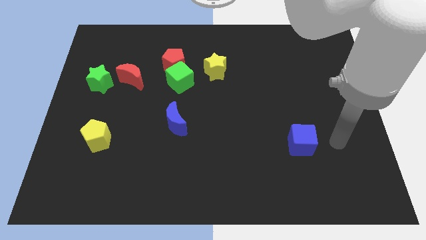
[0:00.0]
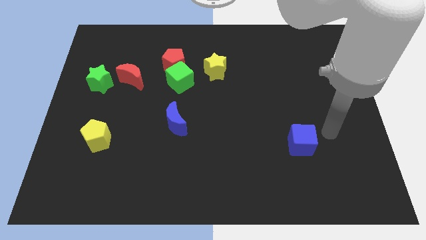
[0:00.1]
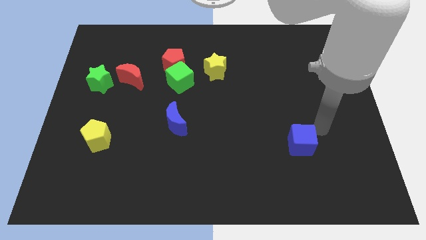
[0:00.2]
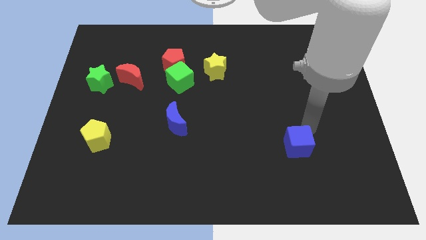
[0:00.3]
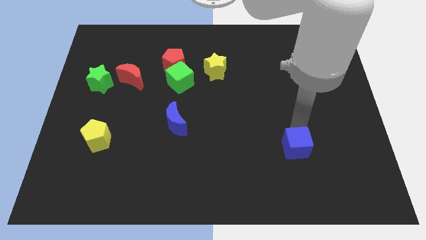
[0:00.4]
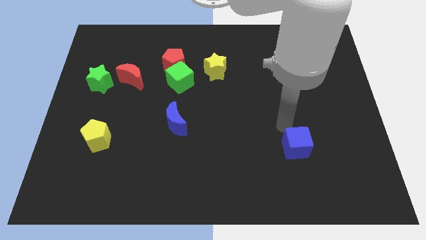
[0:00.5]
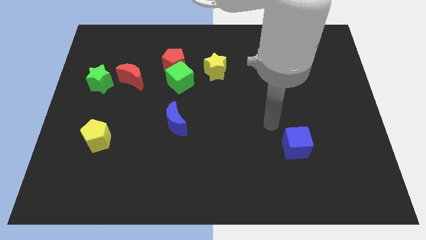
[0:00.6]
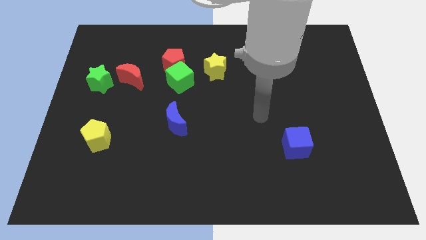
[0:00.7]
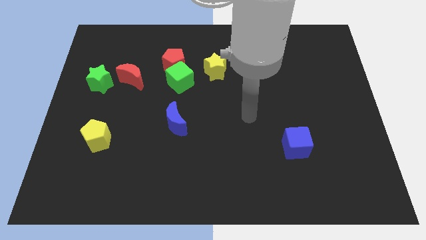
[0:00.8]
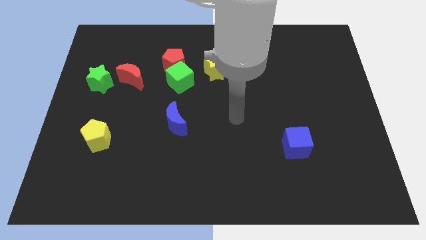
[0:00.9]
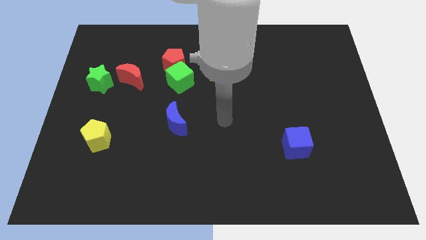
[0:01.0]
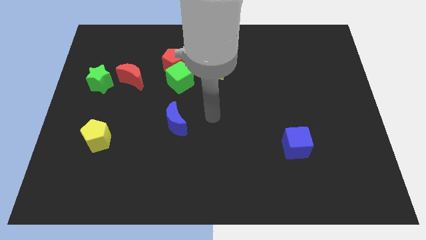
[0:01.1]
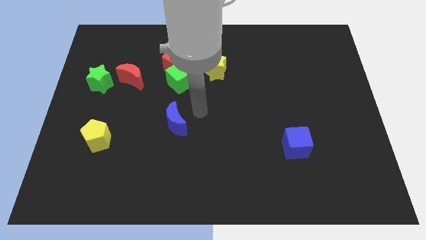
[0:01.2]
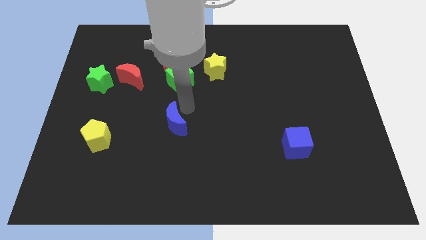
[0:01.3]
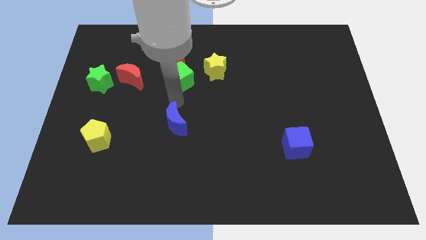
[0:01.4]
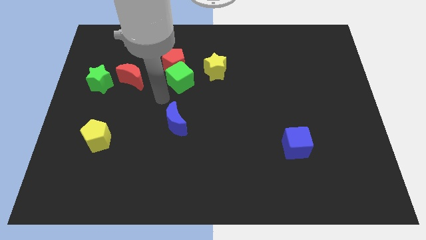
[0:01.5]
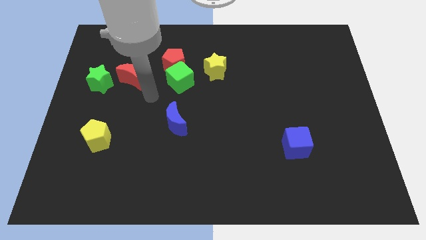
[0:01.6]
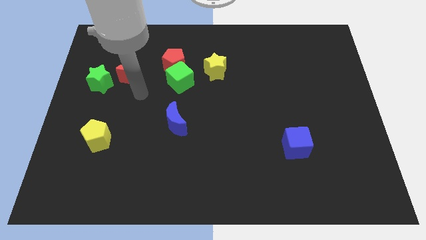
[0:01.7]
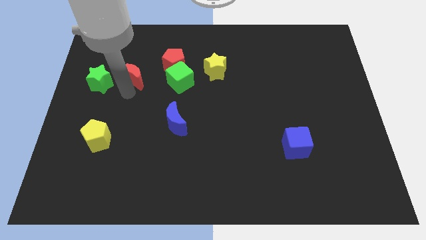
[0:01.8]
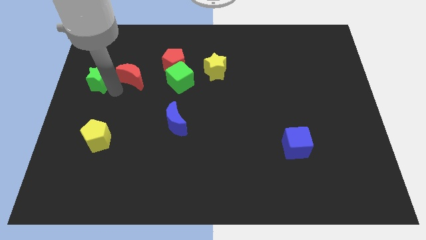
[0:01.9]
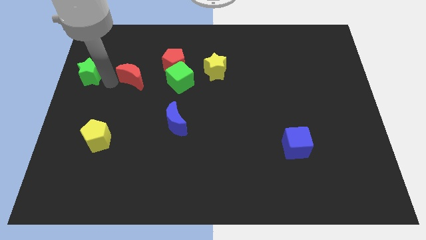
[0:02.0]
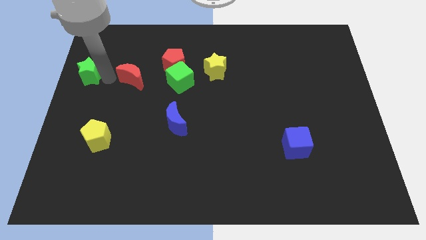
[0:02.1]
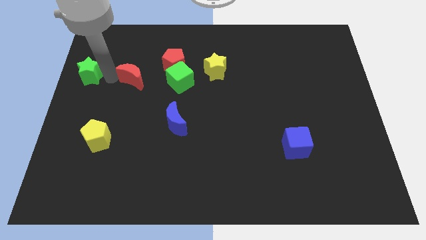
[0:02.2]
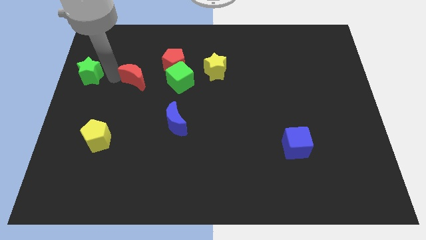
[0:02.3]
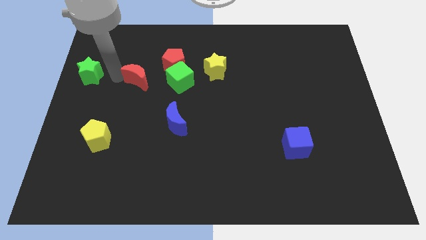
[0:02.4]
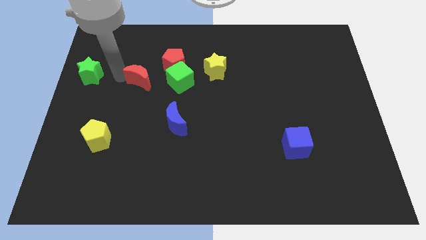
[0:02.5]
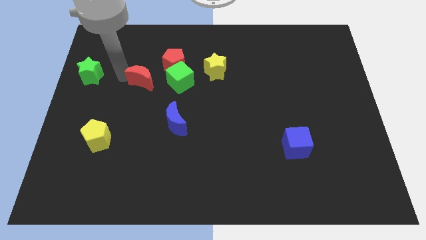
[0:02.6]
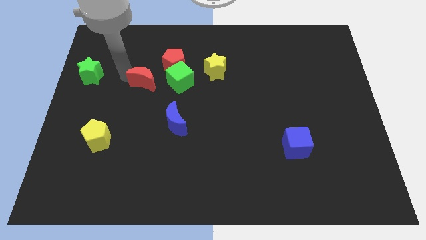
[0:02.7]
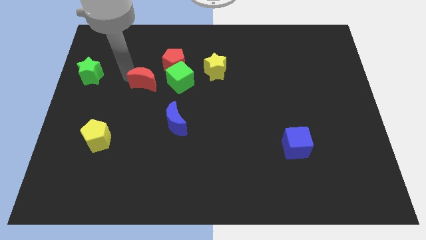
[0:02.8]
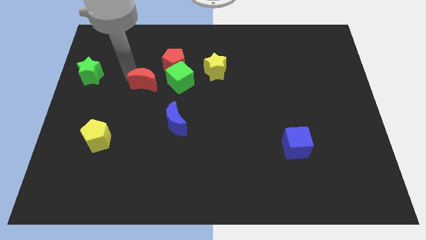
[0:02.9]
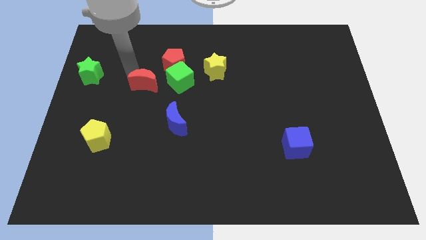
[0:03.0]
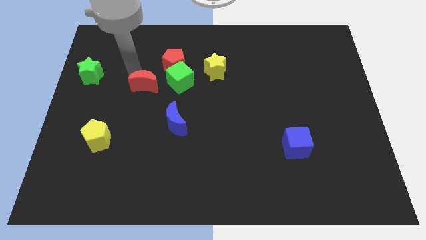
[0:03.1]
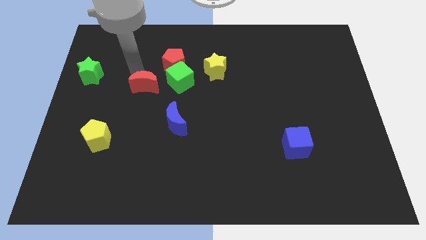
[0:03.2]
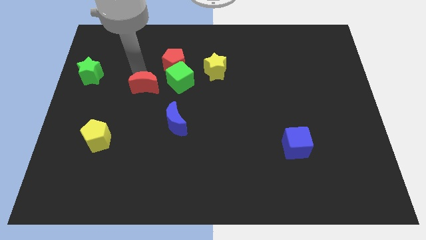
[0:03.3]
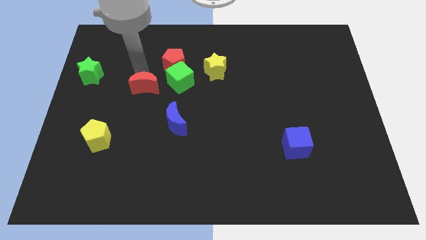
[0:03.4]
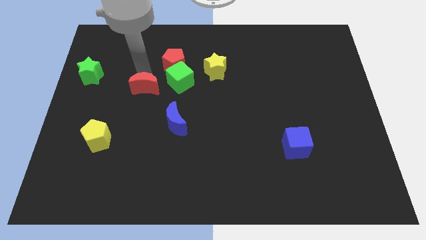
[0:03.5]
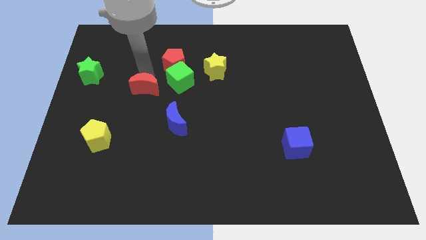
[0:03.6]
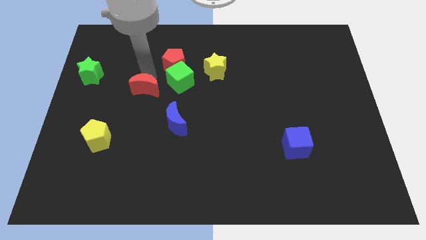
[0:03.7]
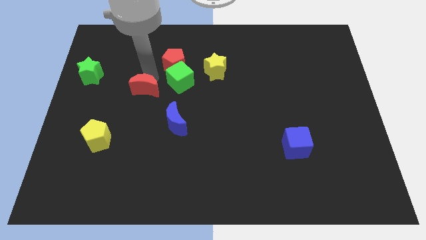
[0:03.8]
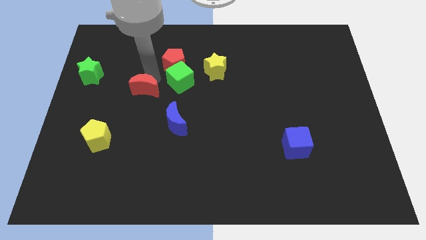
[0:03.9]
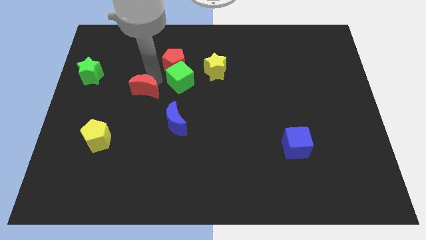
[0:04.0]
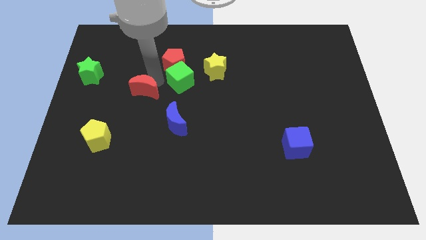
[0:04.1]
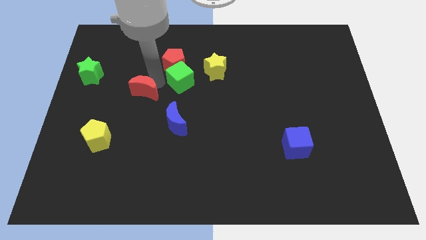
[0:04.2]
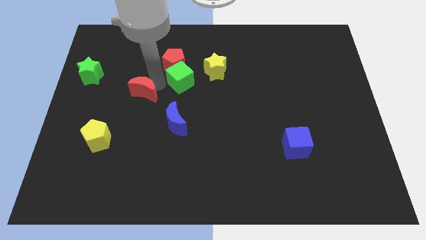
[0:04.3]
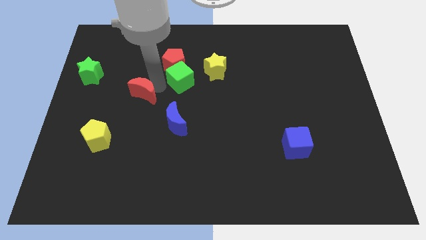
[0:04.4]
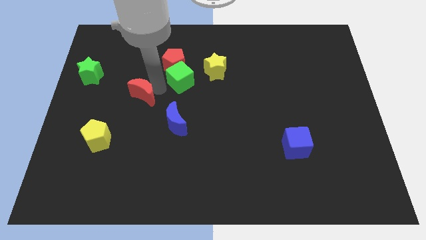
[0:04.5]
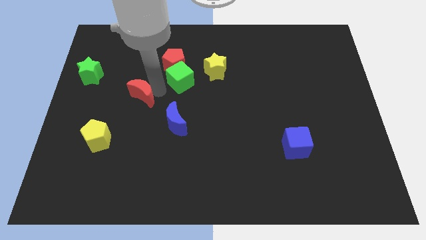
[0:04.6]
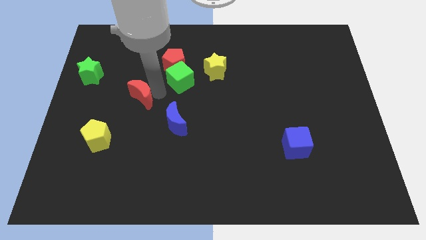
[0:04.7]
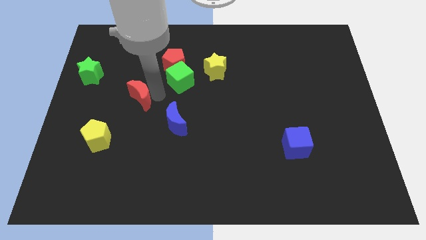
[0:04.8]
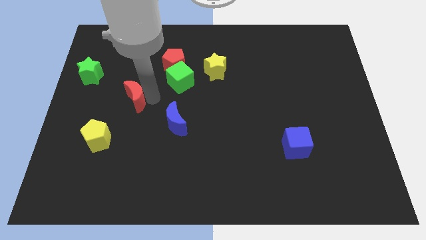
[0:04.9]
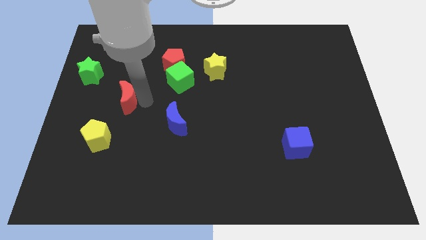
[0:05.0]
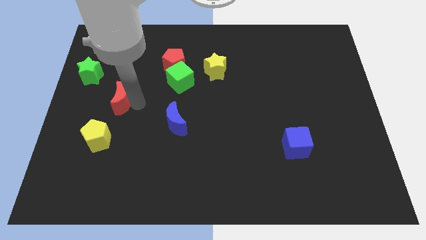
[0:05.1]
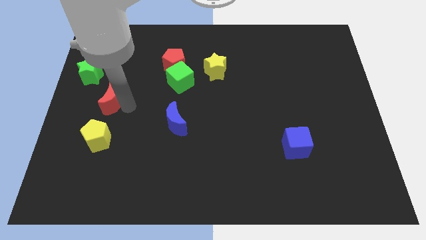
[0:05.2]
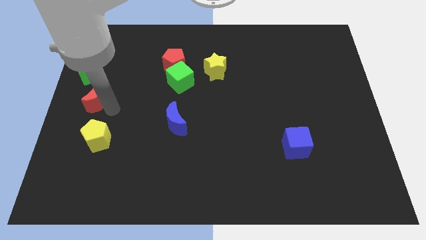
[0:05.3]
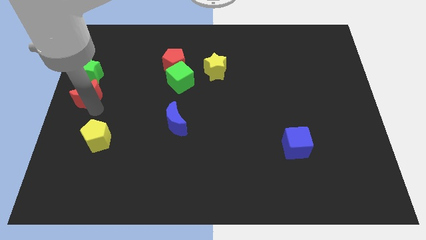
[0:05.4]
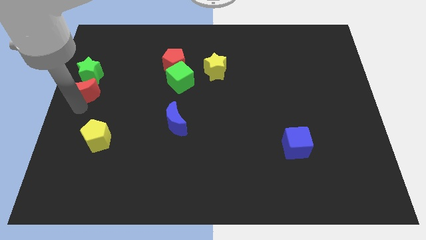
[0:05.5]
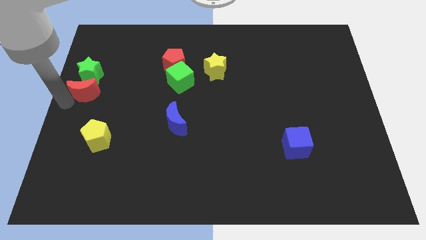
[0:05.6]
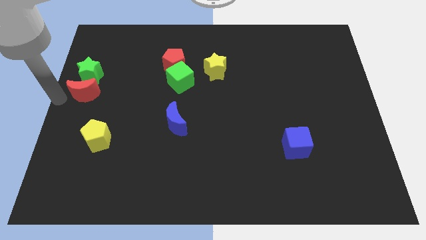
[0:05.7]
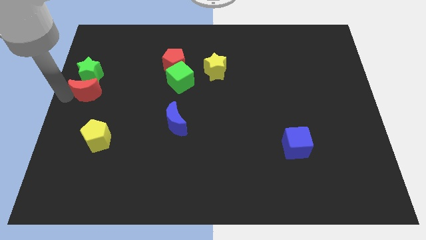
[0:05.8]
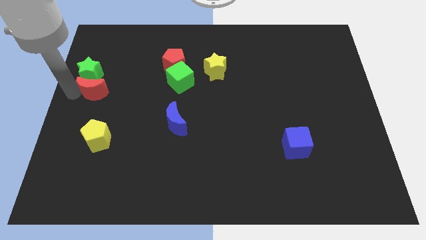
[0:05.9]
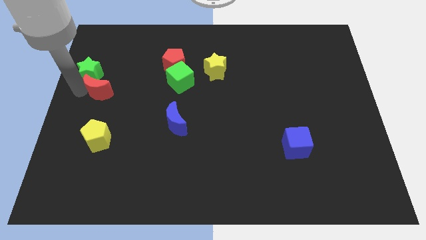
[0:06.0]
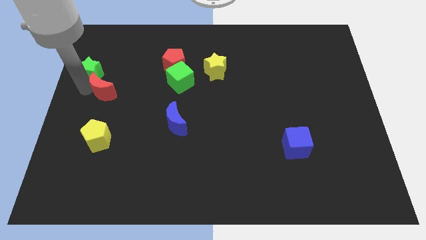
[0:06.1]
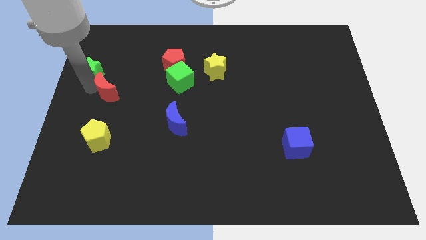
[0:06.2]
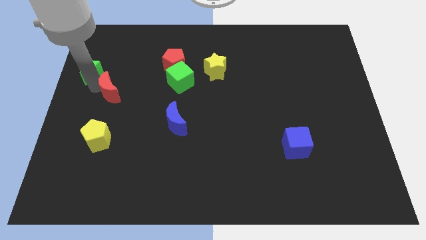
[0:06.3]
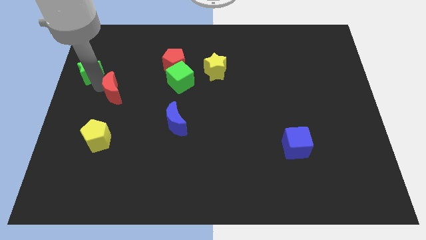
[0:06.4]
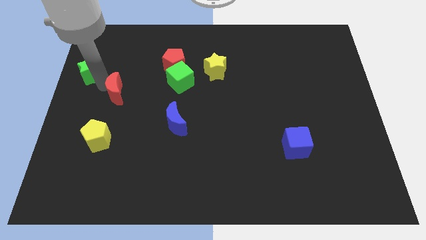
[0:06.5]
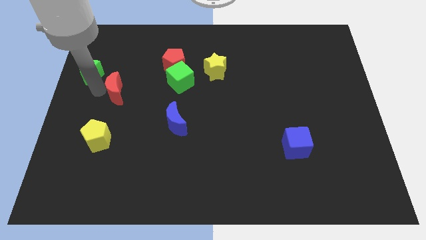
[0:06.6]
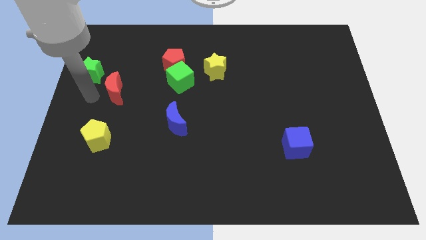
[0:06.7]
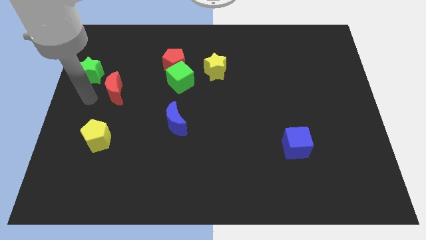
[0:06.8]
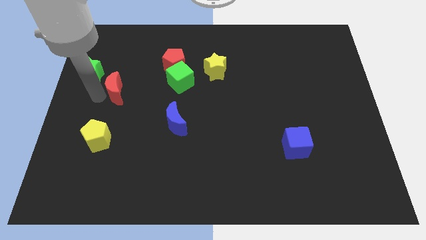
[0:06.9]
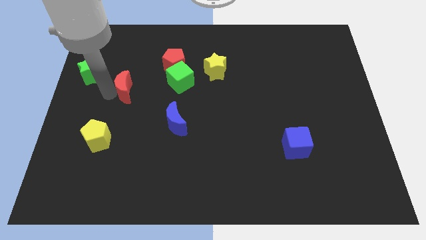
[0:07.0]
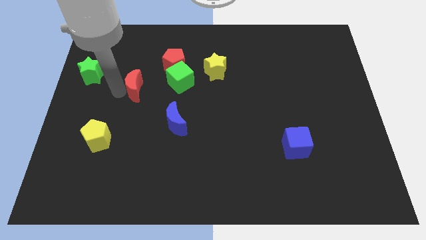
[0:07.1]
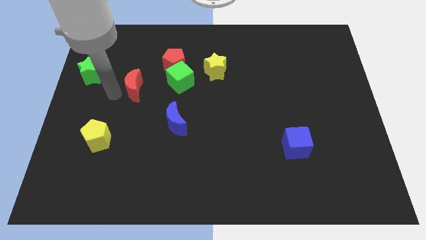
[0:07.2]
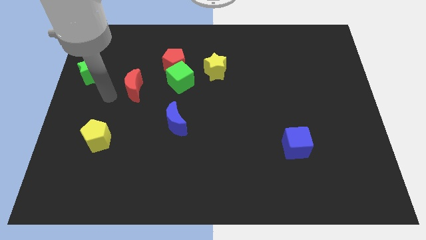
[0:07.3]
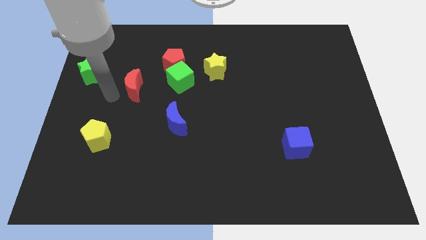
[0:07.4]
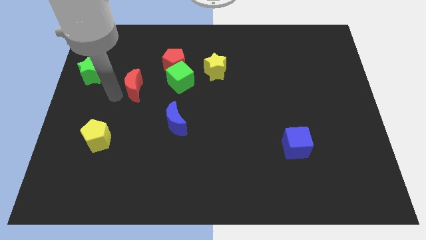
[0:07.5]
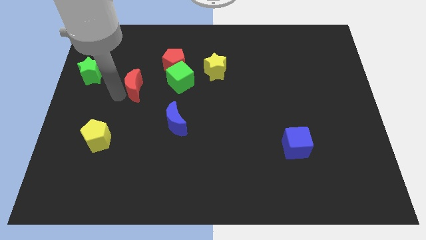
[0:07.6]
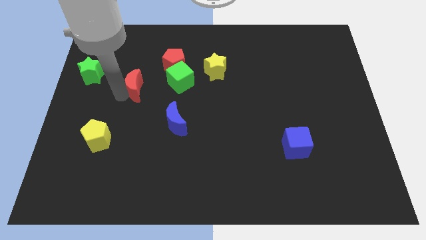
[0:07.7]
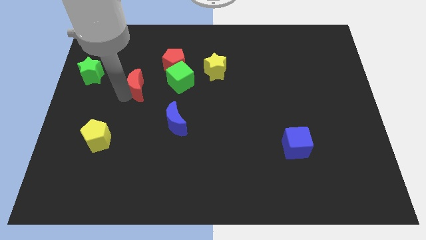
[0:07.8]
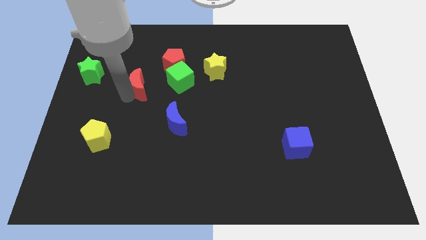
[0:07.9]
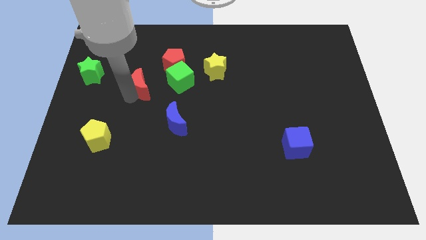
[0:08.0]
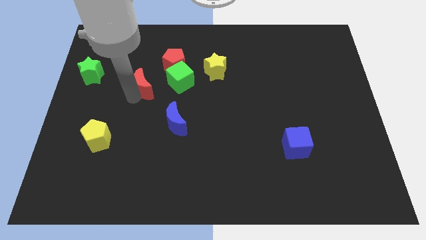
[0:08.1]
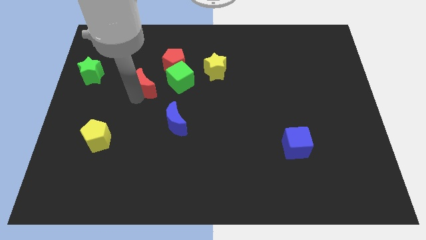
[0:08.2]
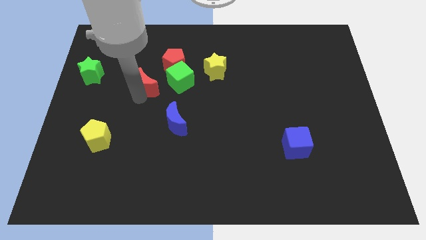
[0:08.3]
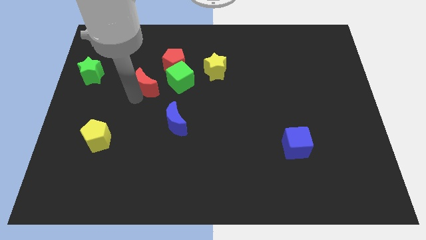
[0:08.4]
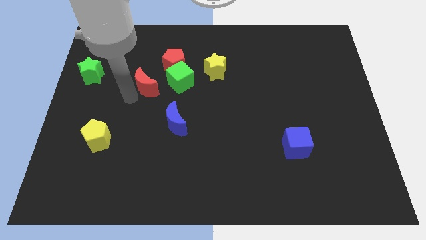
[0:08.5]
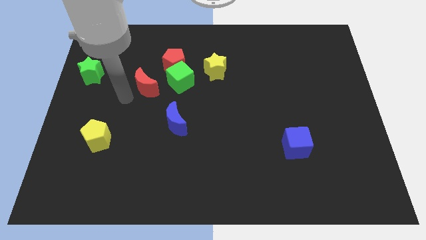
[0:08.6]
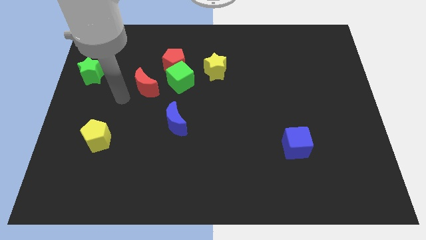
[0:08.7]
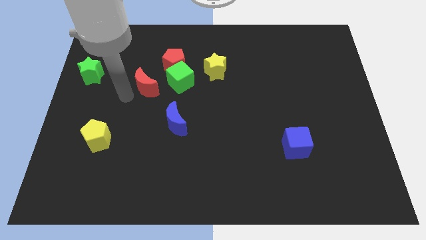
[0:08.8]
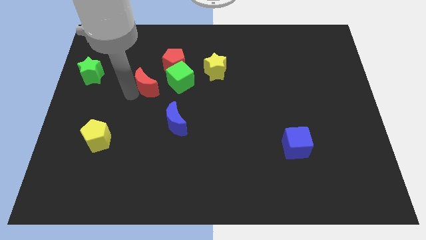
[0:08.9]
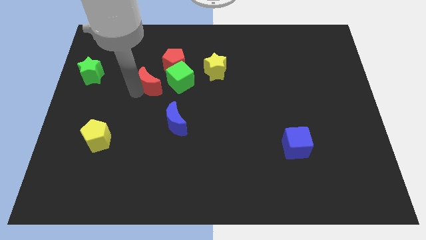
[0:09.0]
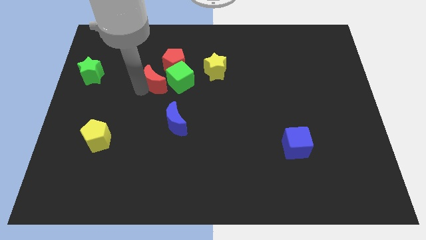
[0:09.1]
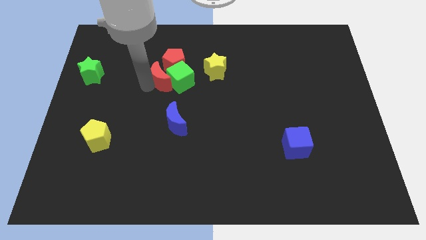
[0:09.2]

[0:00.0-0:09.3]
push the red moon close to the green cube
